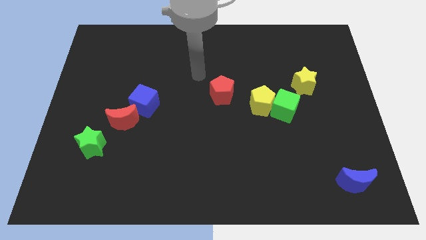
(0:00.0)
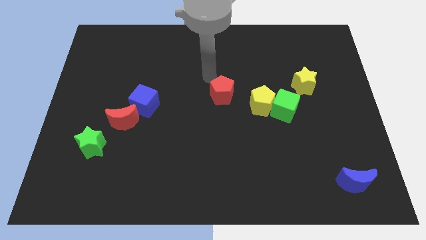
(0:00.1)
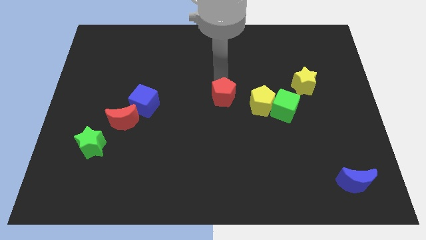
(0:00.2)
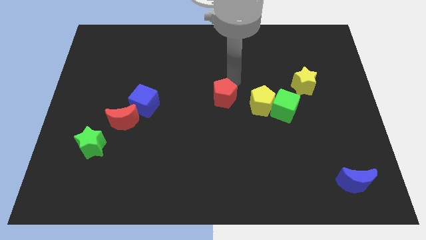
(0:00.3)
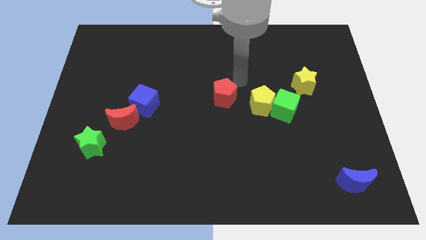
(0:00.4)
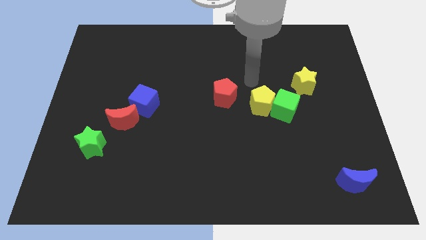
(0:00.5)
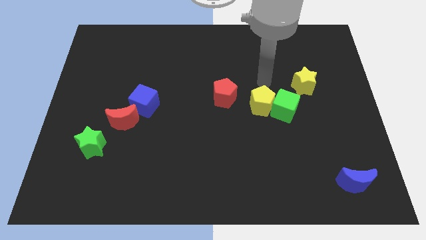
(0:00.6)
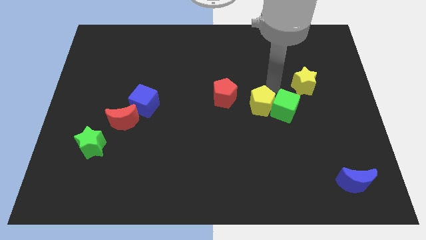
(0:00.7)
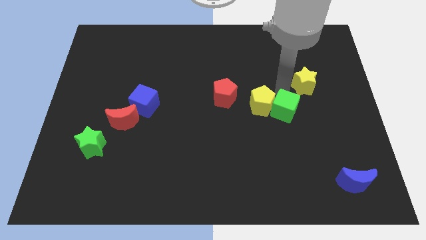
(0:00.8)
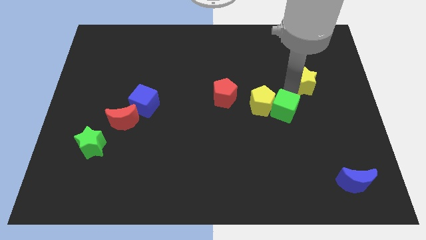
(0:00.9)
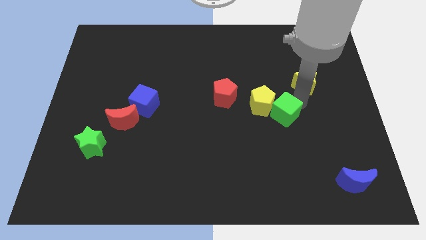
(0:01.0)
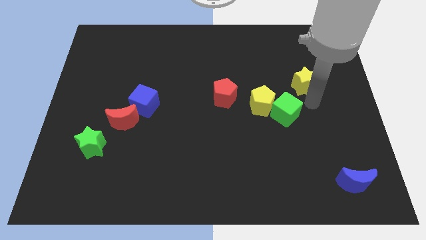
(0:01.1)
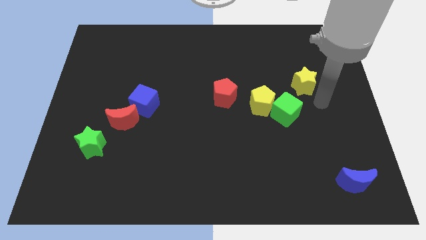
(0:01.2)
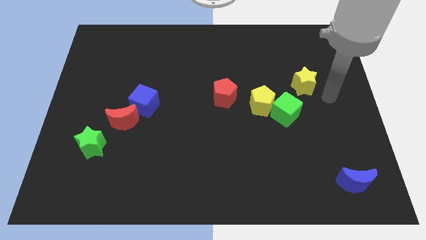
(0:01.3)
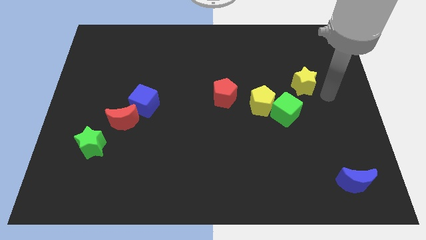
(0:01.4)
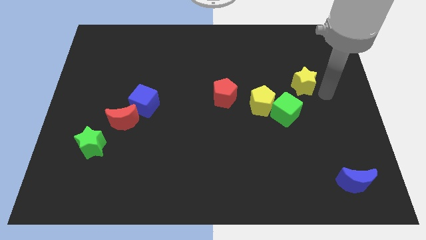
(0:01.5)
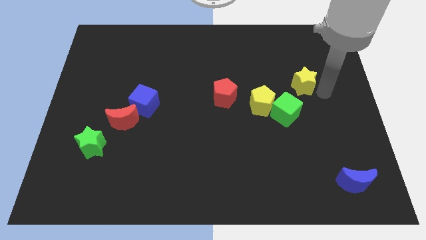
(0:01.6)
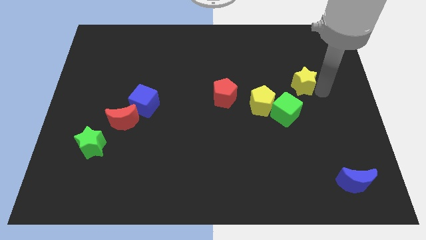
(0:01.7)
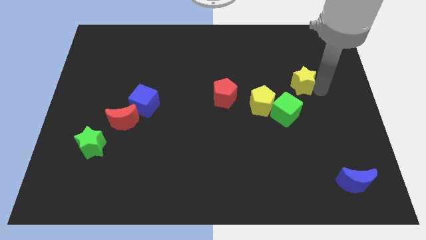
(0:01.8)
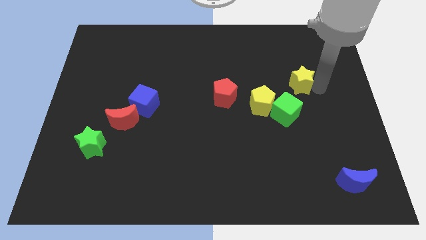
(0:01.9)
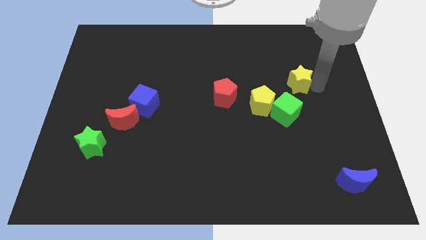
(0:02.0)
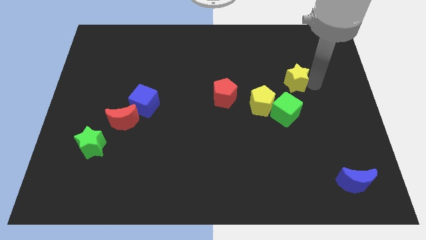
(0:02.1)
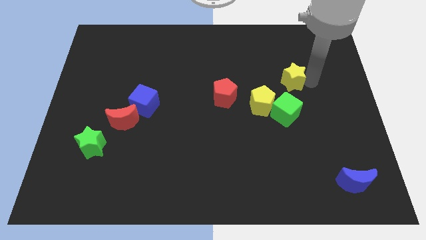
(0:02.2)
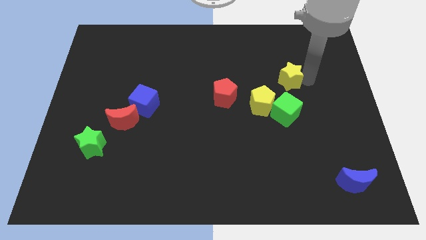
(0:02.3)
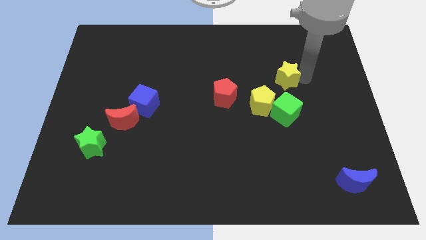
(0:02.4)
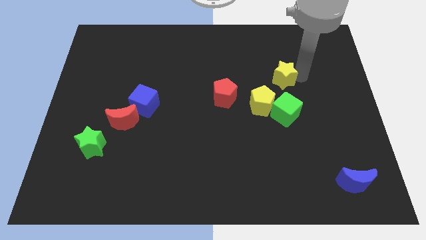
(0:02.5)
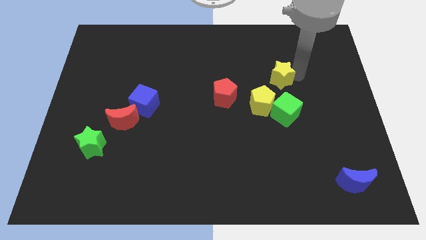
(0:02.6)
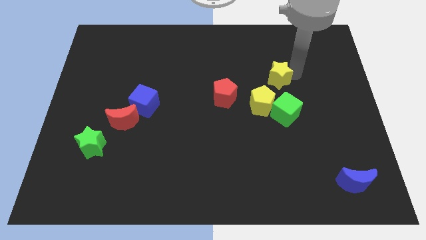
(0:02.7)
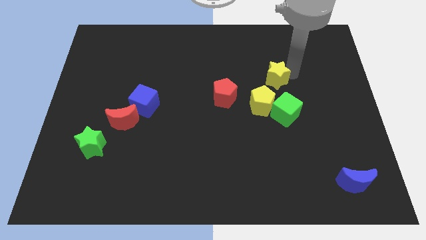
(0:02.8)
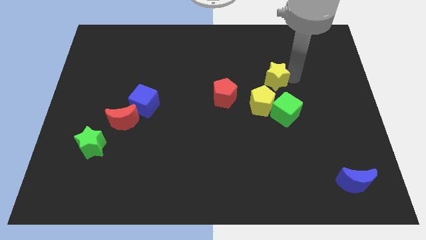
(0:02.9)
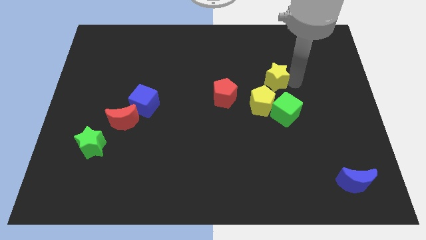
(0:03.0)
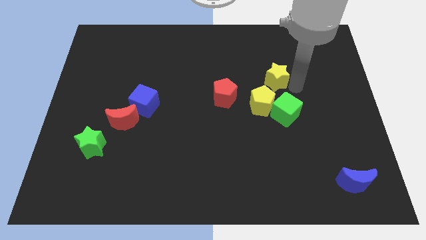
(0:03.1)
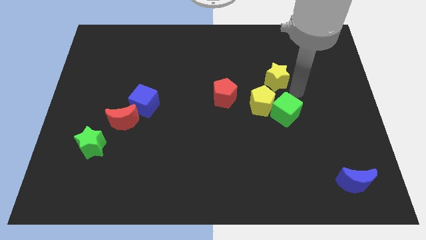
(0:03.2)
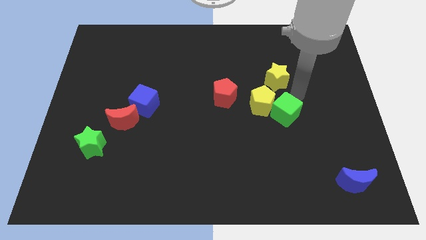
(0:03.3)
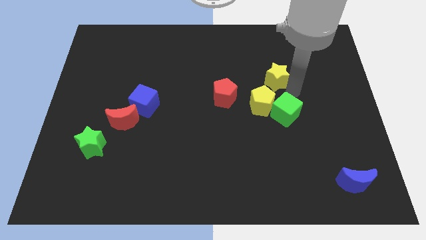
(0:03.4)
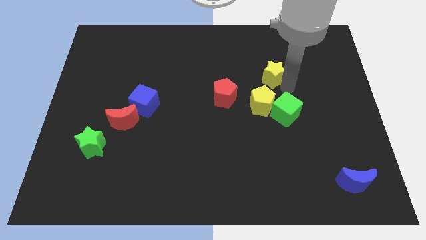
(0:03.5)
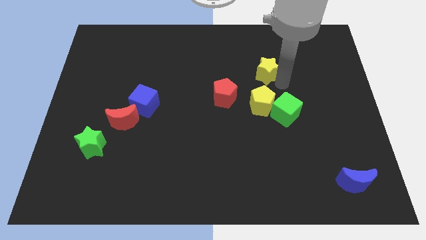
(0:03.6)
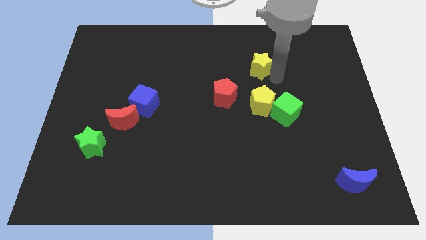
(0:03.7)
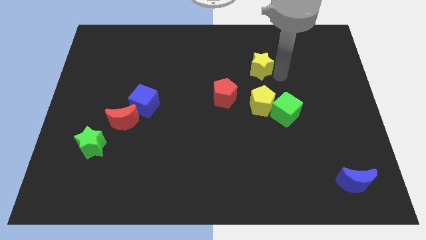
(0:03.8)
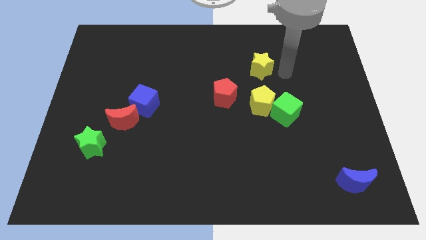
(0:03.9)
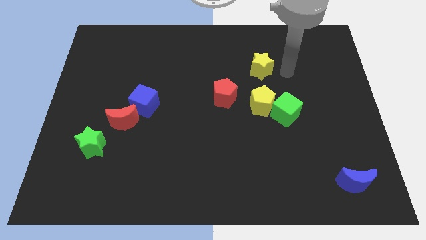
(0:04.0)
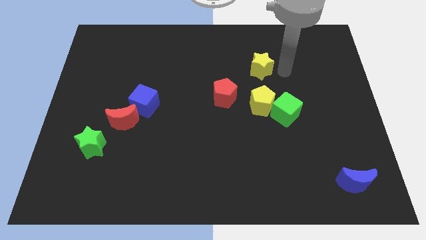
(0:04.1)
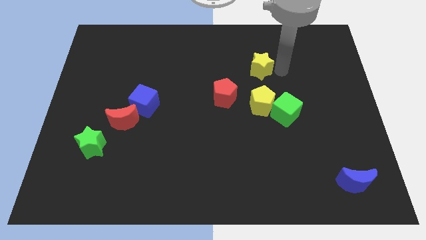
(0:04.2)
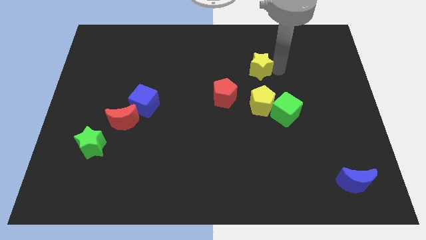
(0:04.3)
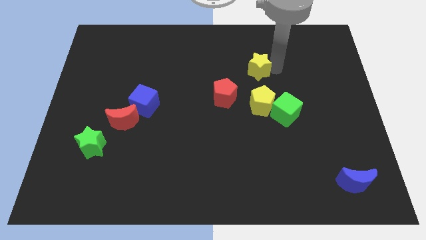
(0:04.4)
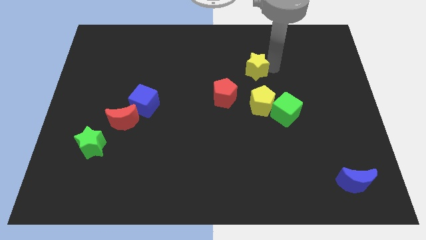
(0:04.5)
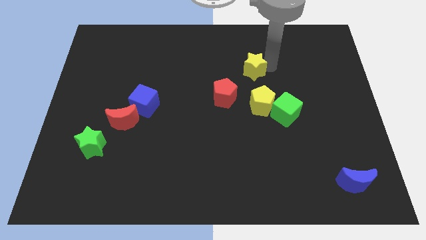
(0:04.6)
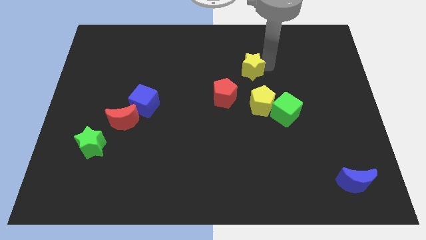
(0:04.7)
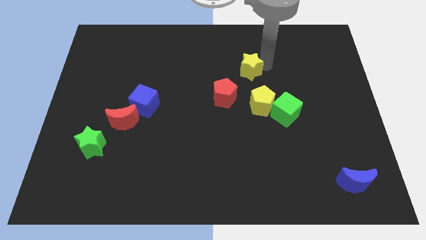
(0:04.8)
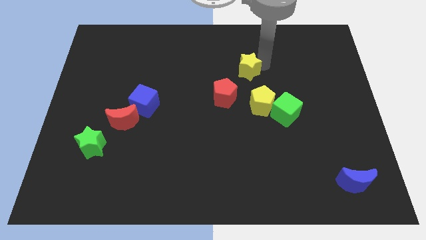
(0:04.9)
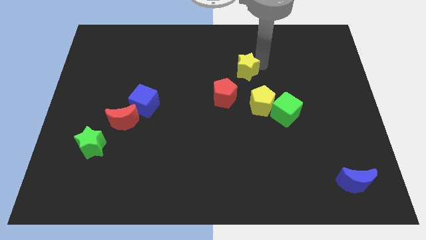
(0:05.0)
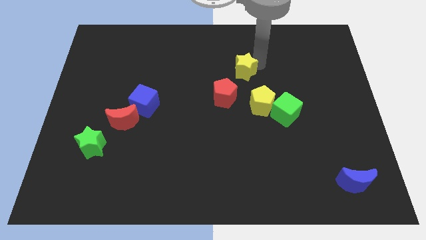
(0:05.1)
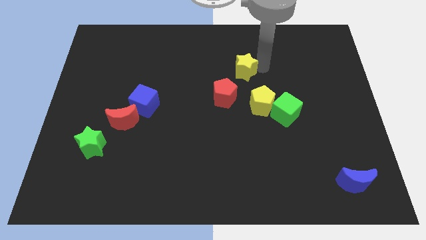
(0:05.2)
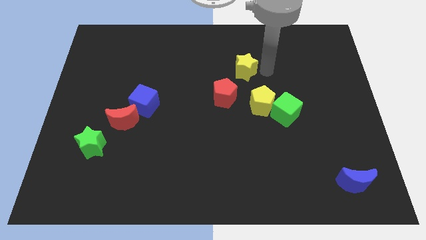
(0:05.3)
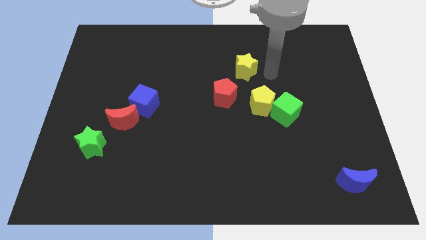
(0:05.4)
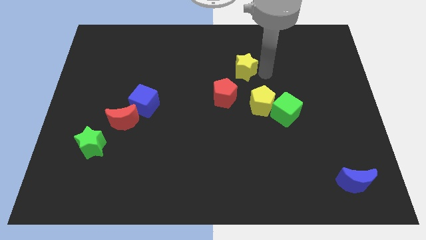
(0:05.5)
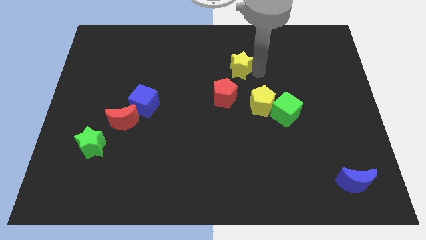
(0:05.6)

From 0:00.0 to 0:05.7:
slide the yellow star to the top side of the red pentagon

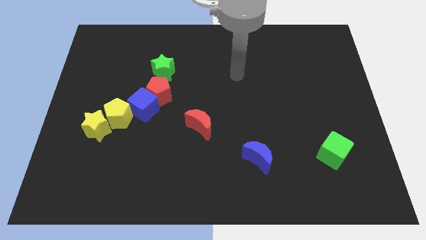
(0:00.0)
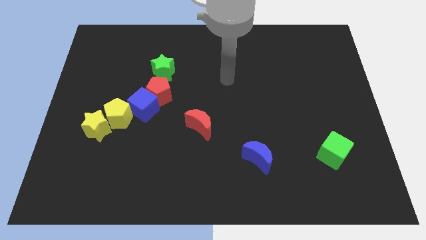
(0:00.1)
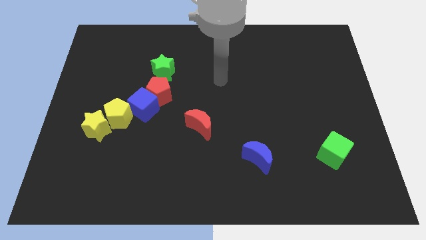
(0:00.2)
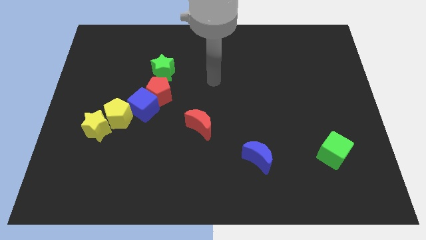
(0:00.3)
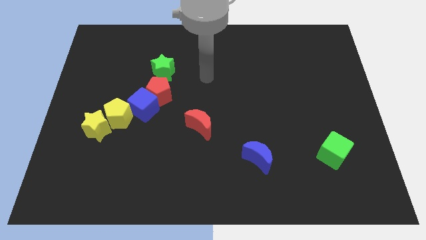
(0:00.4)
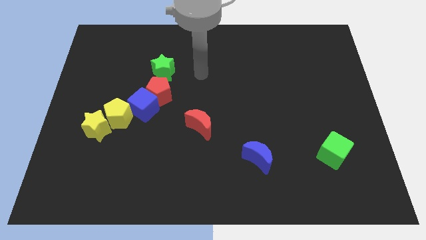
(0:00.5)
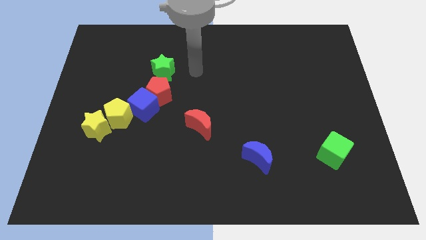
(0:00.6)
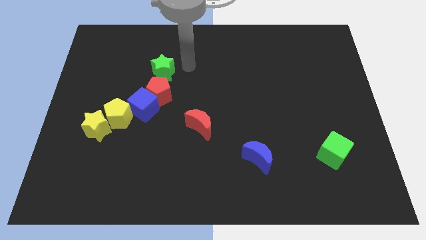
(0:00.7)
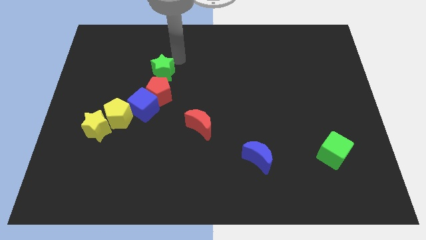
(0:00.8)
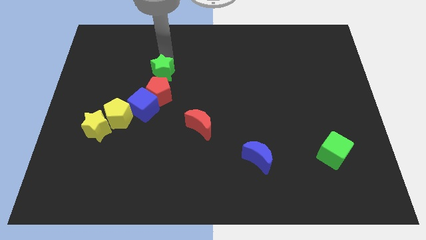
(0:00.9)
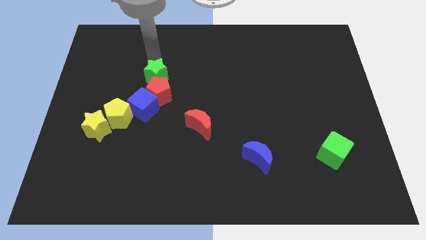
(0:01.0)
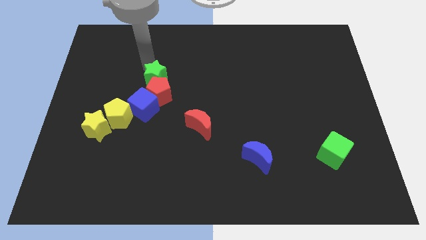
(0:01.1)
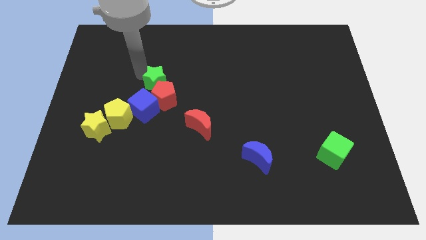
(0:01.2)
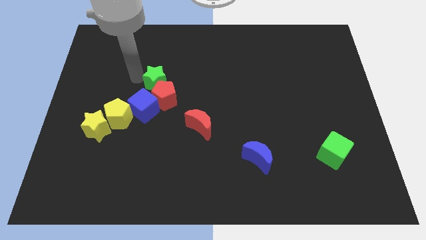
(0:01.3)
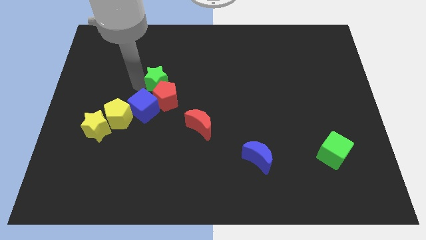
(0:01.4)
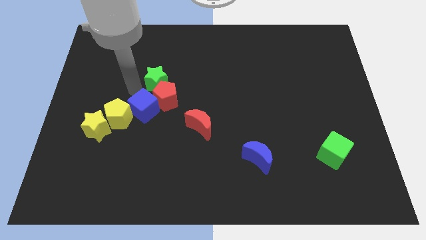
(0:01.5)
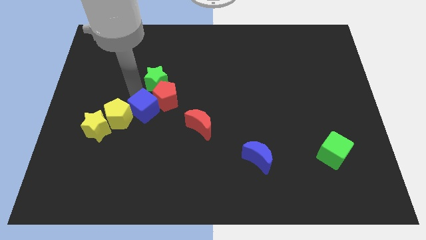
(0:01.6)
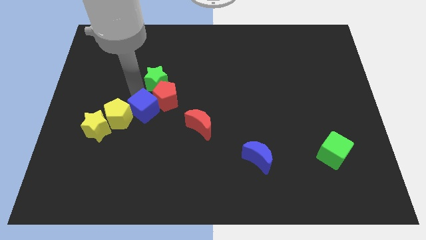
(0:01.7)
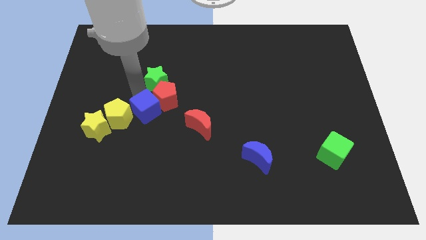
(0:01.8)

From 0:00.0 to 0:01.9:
move the blue cube left of the red moon
